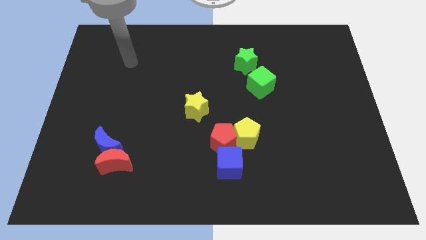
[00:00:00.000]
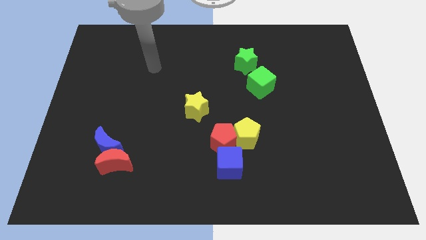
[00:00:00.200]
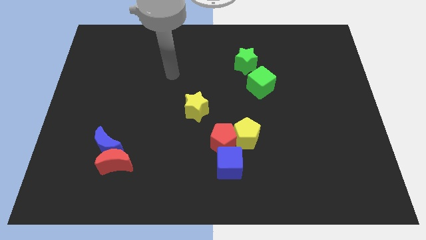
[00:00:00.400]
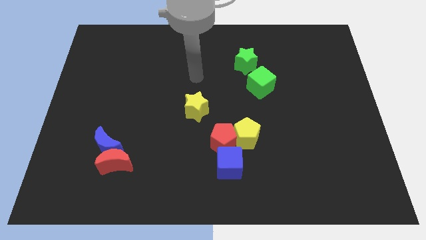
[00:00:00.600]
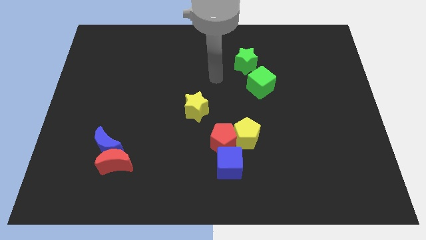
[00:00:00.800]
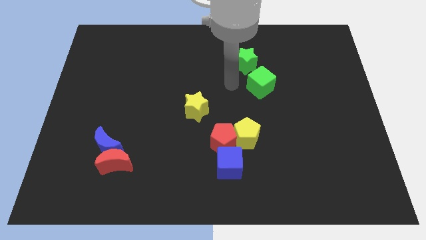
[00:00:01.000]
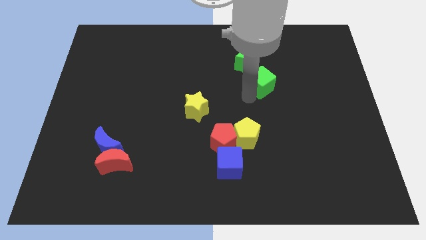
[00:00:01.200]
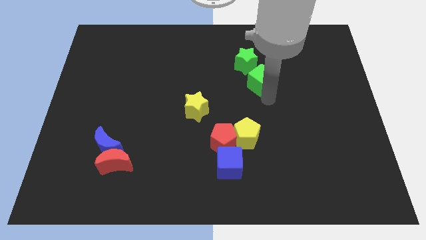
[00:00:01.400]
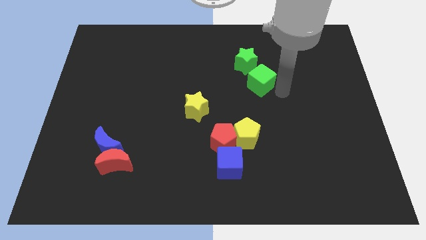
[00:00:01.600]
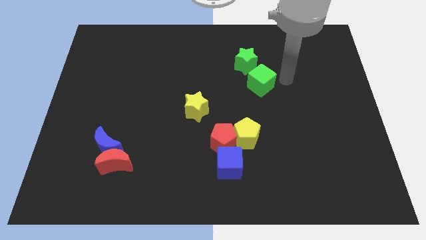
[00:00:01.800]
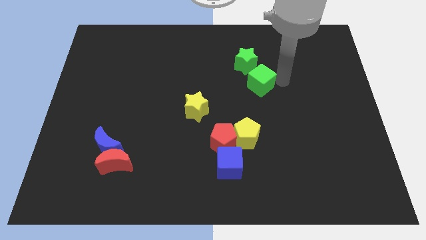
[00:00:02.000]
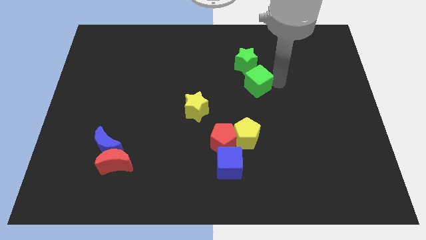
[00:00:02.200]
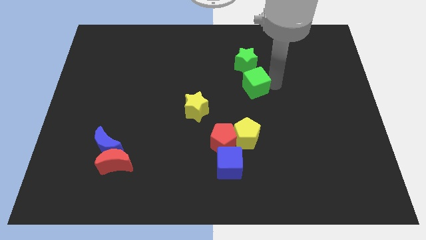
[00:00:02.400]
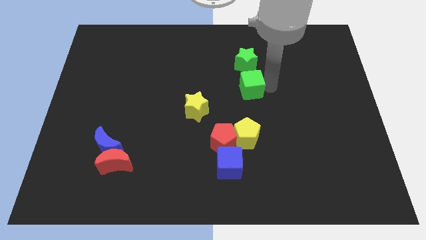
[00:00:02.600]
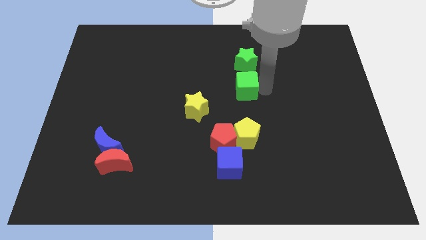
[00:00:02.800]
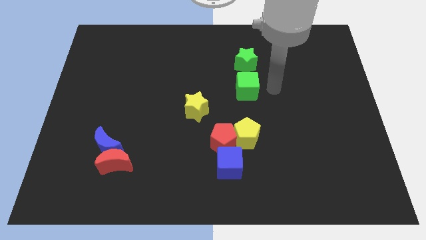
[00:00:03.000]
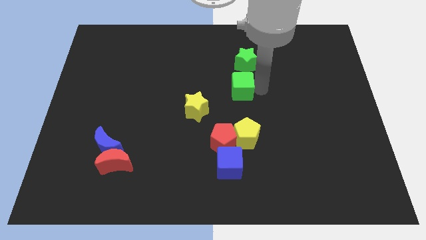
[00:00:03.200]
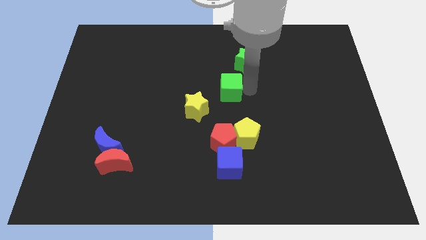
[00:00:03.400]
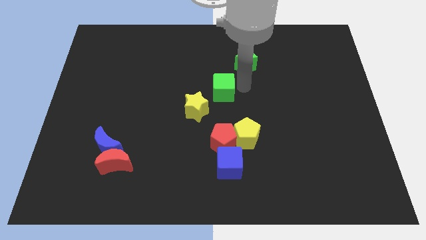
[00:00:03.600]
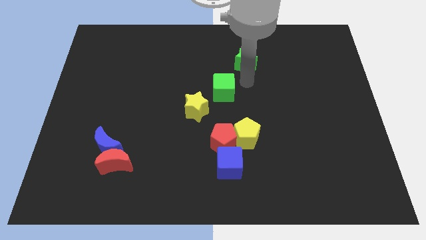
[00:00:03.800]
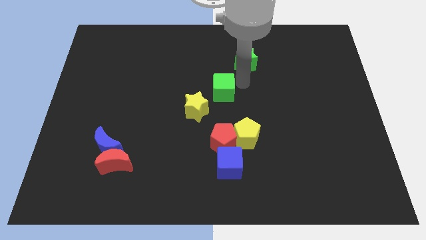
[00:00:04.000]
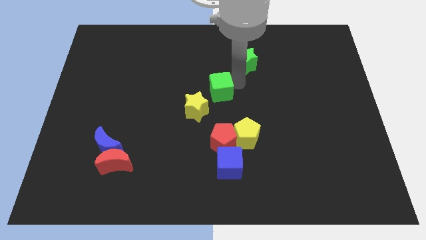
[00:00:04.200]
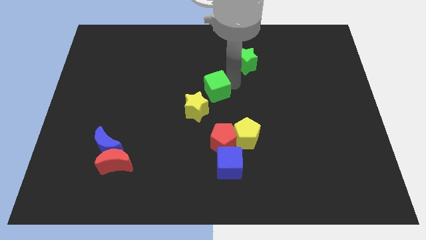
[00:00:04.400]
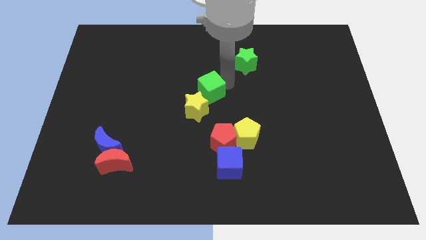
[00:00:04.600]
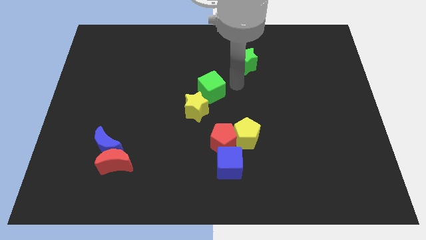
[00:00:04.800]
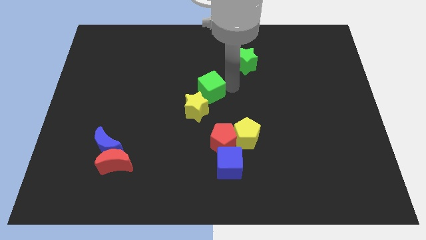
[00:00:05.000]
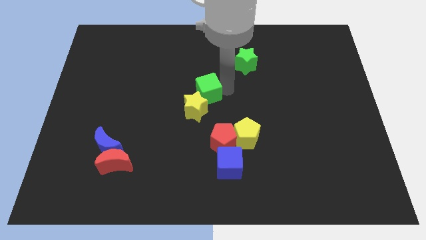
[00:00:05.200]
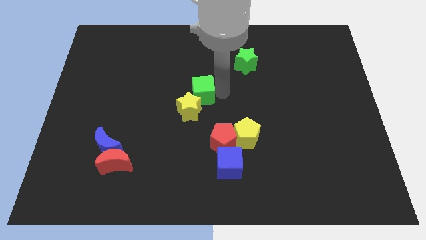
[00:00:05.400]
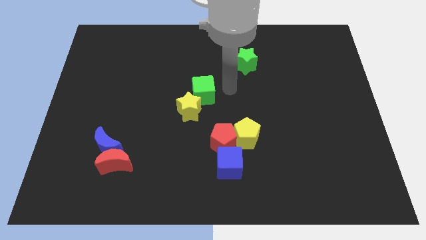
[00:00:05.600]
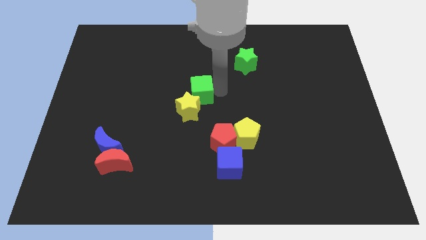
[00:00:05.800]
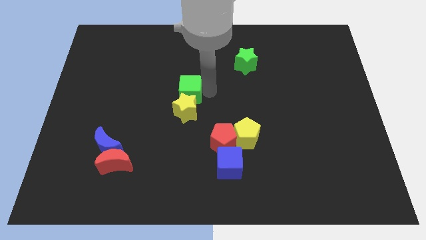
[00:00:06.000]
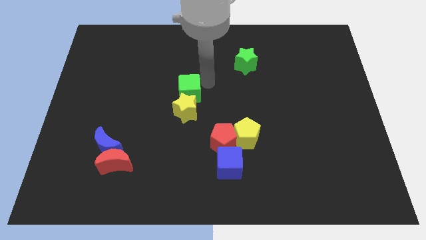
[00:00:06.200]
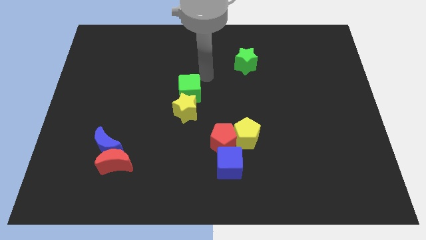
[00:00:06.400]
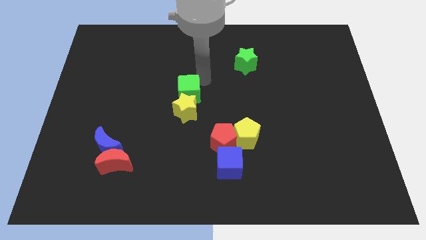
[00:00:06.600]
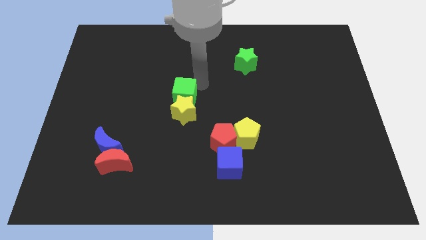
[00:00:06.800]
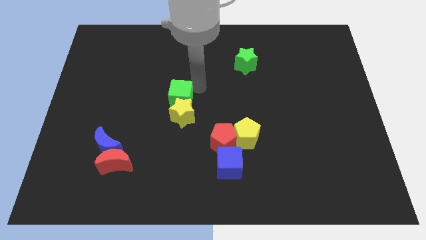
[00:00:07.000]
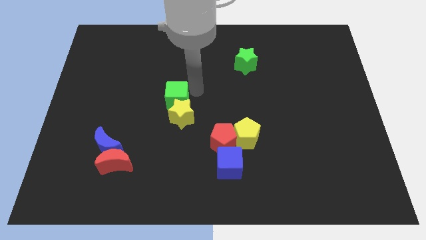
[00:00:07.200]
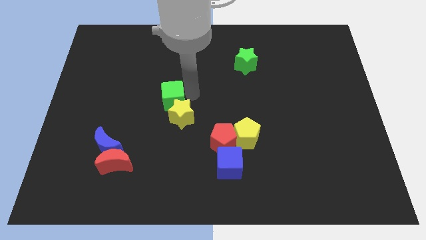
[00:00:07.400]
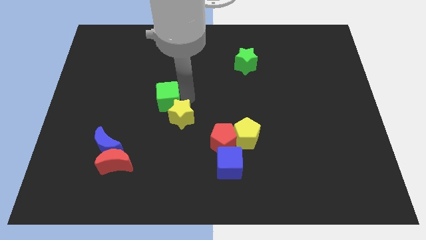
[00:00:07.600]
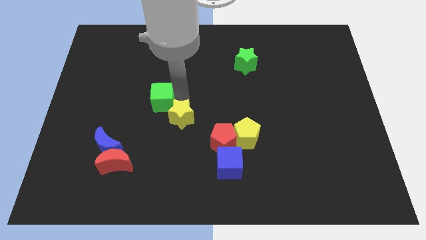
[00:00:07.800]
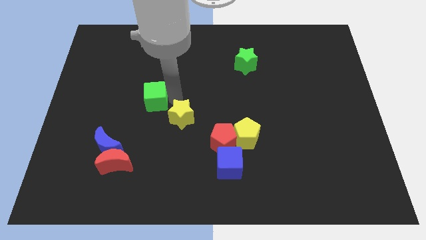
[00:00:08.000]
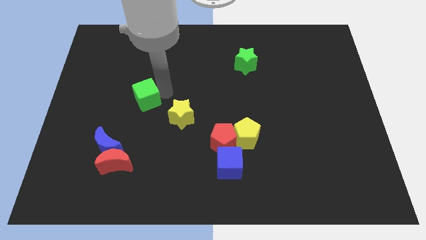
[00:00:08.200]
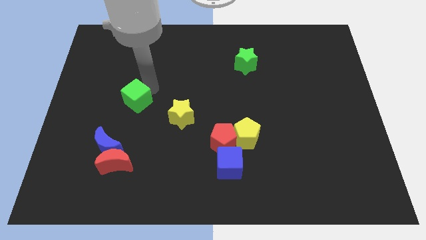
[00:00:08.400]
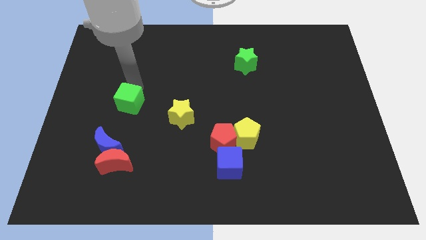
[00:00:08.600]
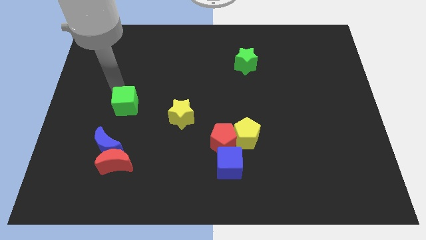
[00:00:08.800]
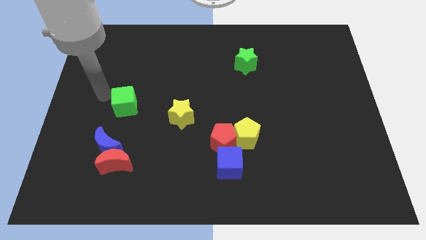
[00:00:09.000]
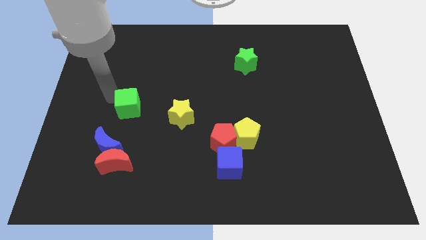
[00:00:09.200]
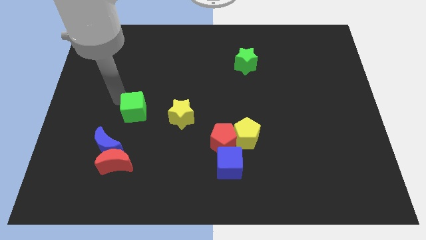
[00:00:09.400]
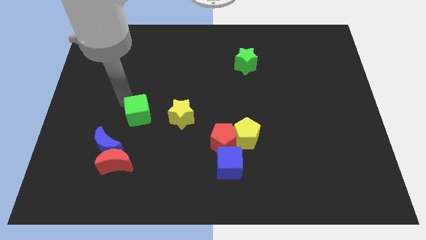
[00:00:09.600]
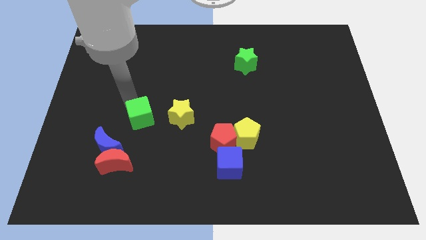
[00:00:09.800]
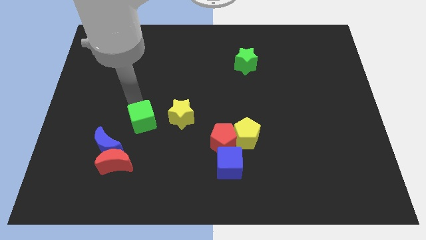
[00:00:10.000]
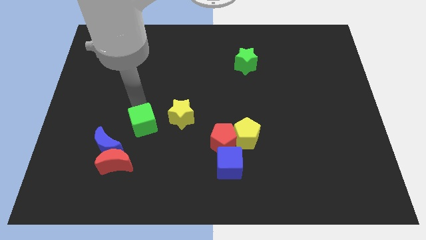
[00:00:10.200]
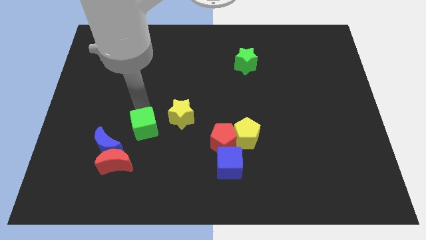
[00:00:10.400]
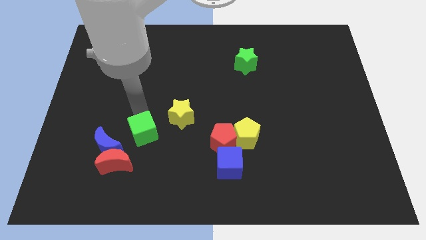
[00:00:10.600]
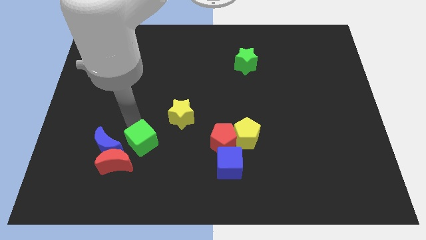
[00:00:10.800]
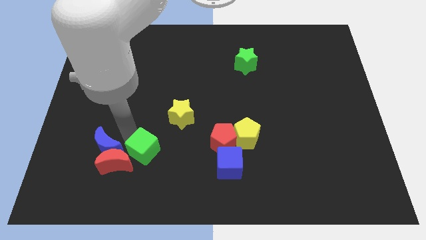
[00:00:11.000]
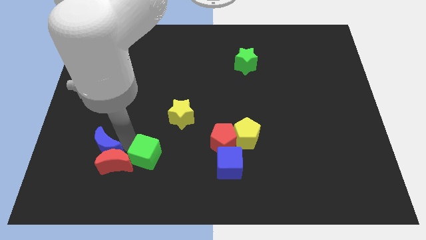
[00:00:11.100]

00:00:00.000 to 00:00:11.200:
move the green cube next to the red moon

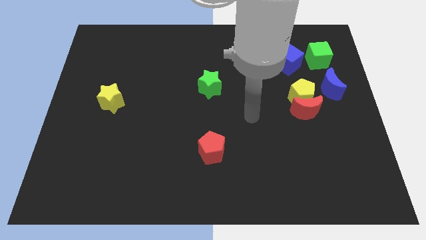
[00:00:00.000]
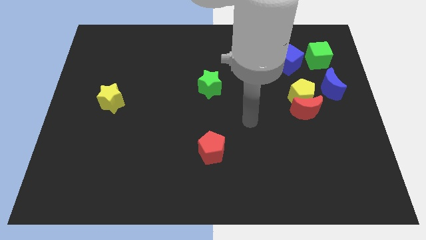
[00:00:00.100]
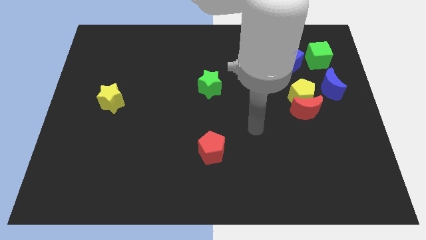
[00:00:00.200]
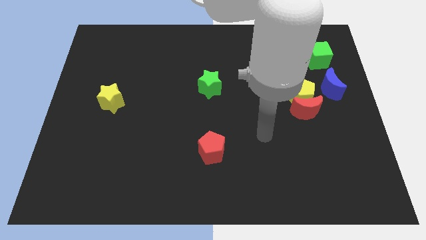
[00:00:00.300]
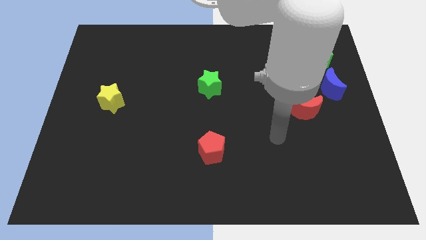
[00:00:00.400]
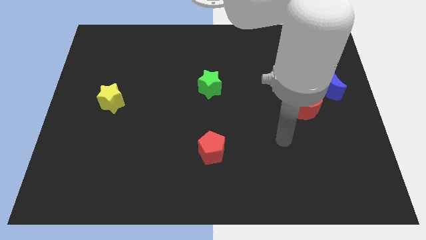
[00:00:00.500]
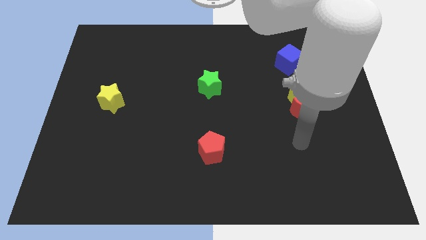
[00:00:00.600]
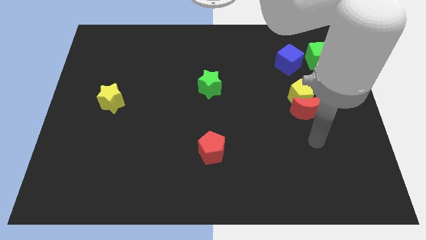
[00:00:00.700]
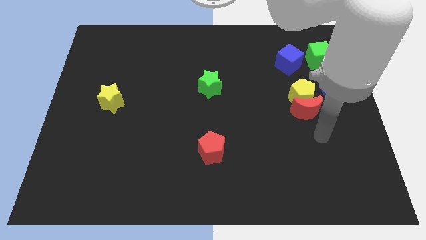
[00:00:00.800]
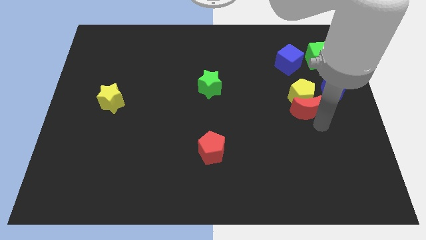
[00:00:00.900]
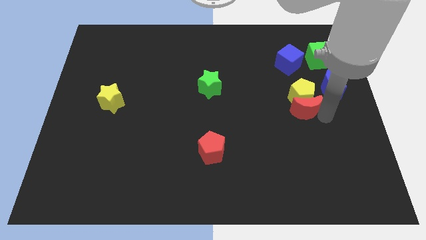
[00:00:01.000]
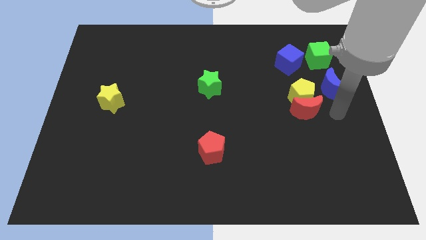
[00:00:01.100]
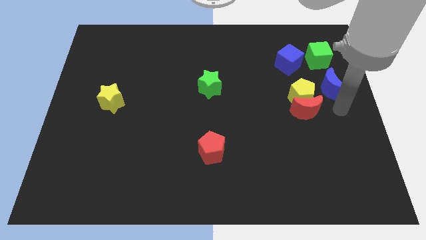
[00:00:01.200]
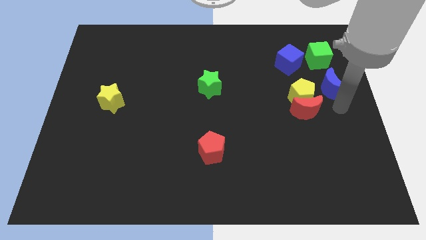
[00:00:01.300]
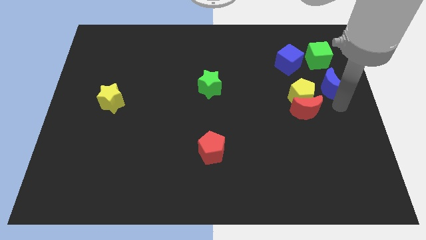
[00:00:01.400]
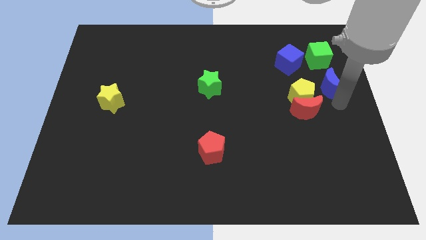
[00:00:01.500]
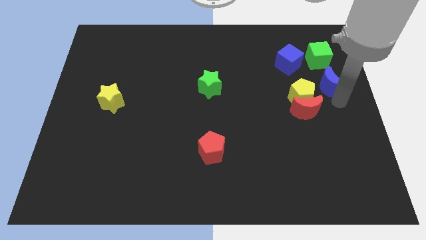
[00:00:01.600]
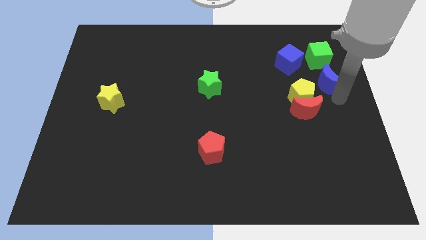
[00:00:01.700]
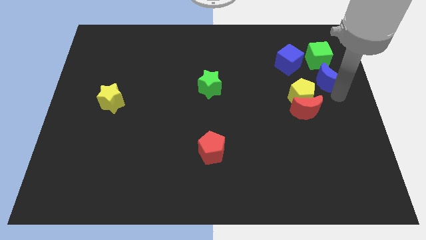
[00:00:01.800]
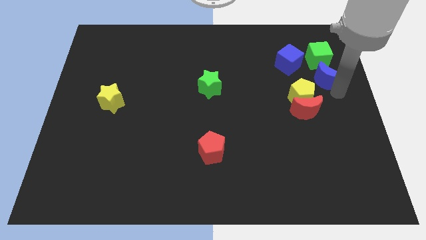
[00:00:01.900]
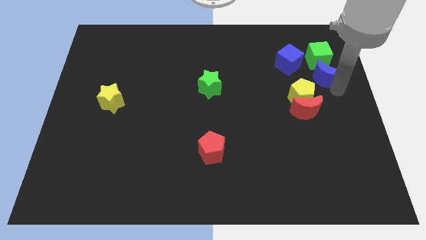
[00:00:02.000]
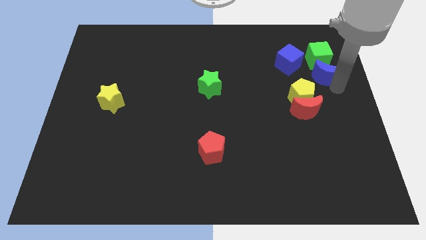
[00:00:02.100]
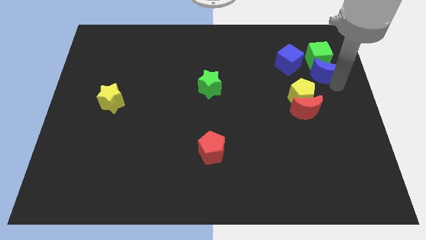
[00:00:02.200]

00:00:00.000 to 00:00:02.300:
put the blue moon close to the green cube
